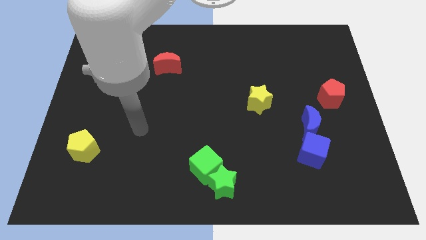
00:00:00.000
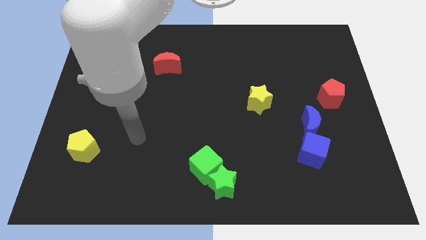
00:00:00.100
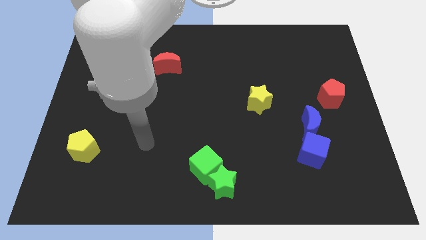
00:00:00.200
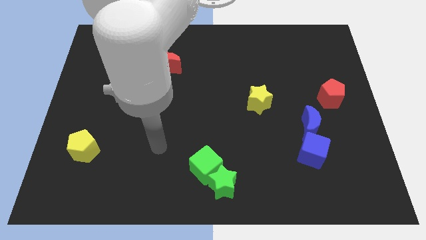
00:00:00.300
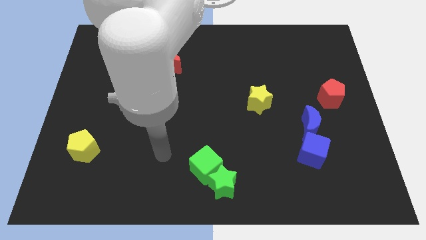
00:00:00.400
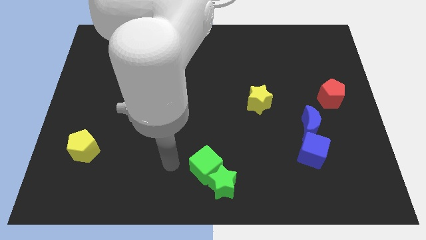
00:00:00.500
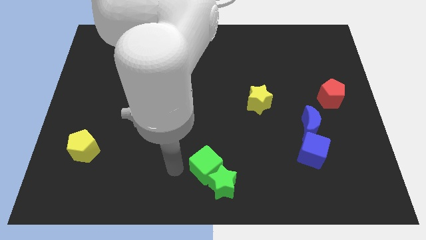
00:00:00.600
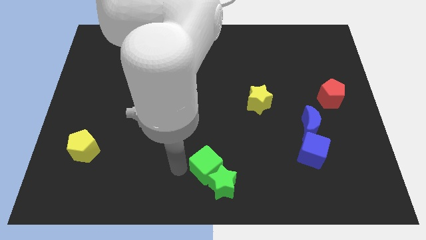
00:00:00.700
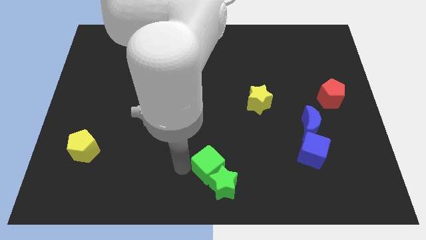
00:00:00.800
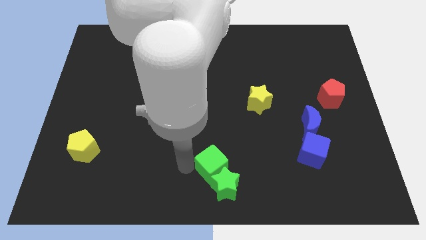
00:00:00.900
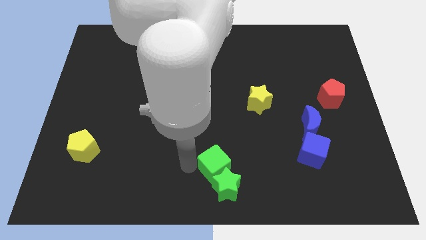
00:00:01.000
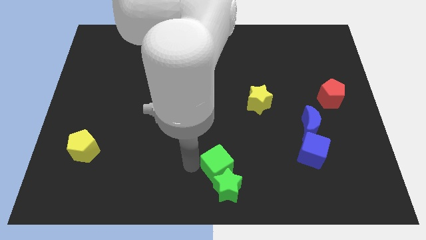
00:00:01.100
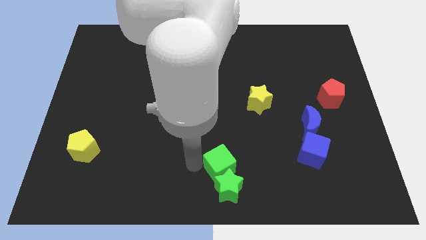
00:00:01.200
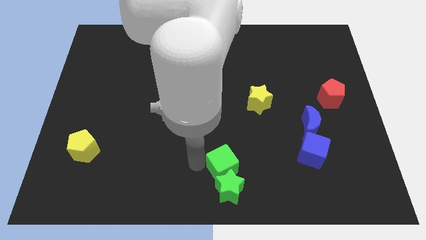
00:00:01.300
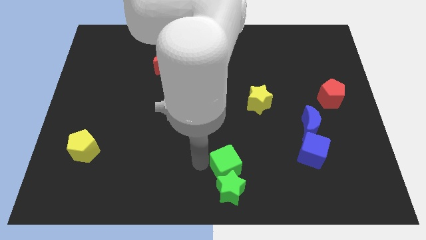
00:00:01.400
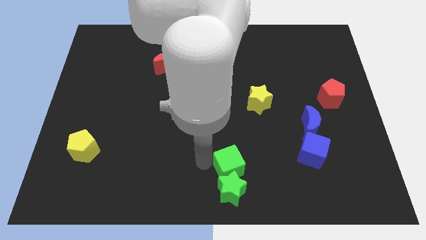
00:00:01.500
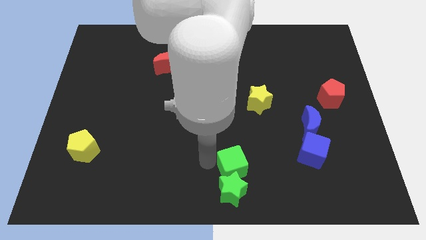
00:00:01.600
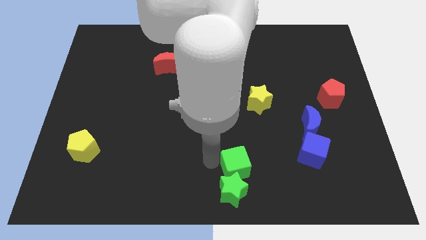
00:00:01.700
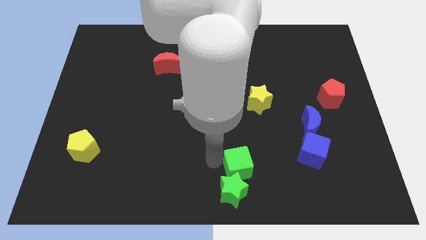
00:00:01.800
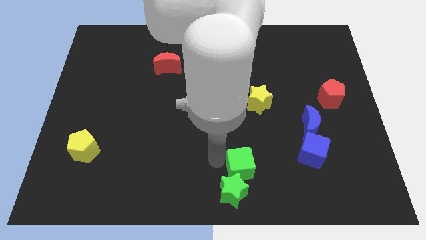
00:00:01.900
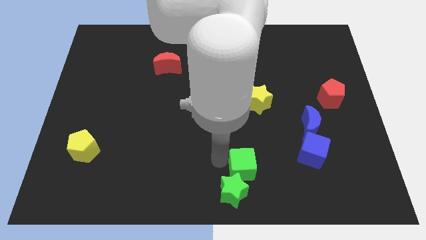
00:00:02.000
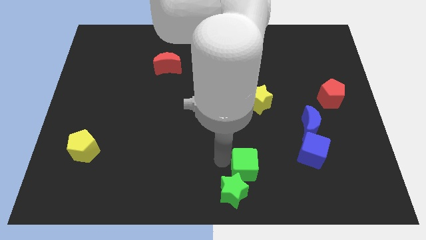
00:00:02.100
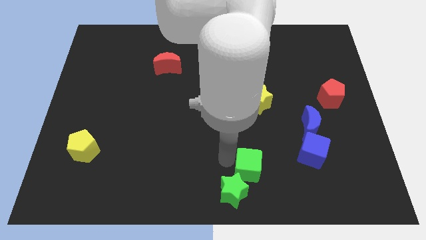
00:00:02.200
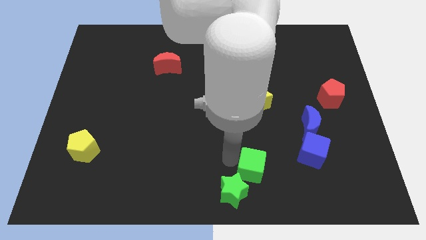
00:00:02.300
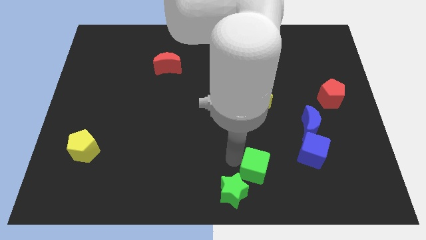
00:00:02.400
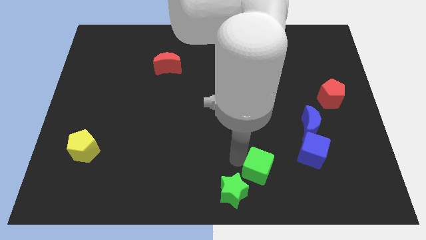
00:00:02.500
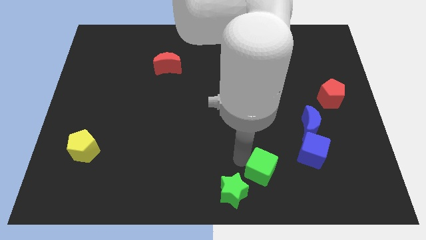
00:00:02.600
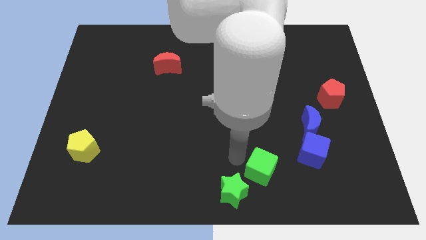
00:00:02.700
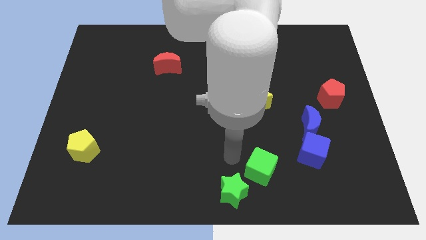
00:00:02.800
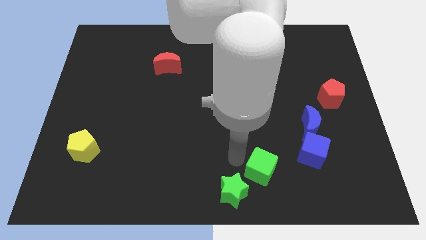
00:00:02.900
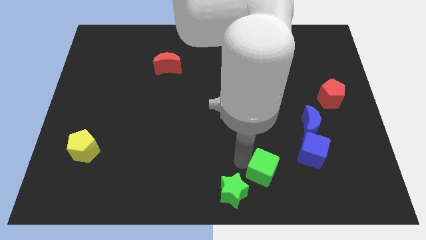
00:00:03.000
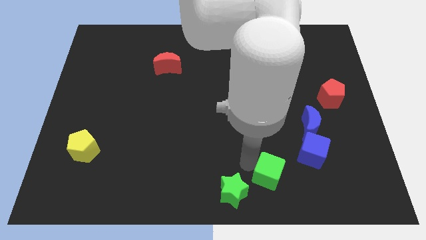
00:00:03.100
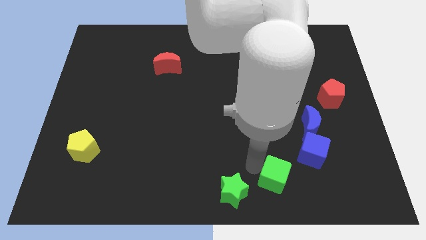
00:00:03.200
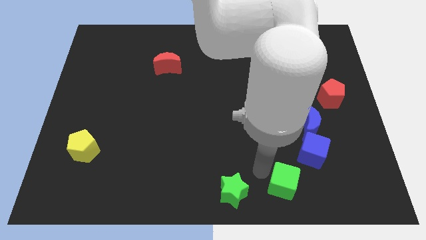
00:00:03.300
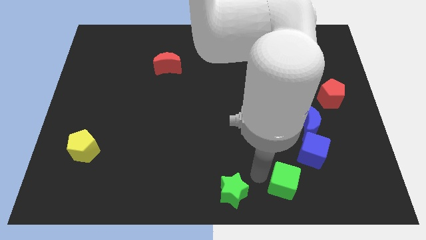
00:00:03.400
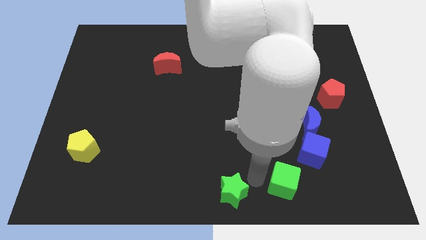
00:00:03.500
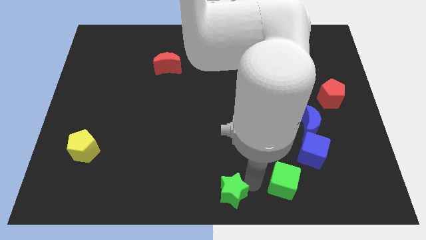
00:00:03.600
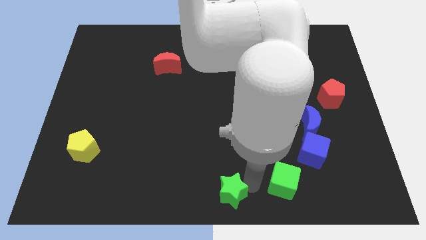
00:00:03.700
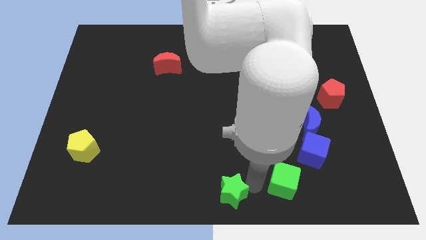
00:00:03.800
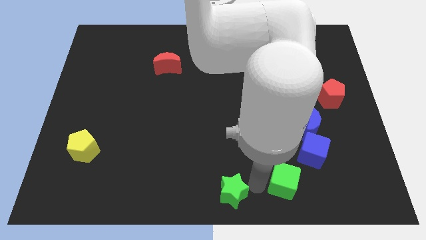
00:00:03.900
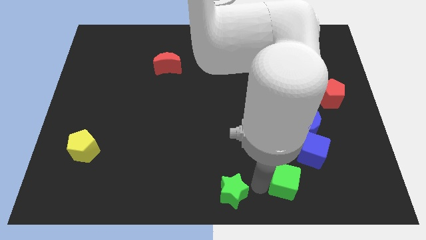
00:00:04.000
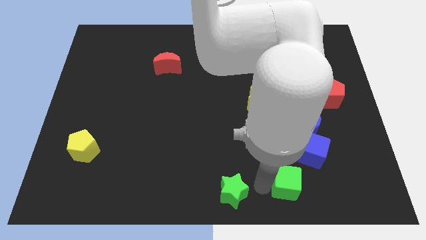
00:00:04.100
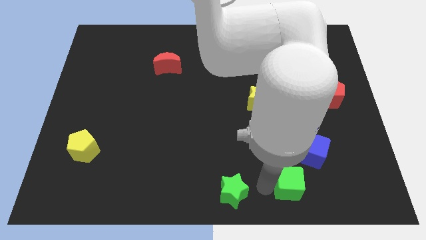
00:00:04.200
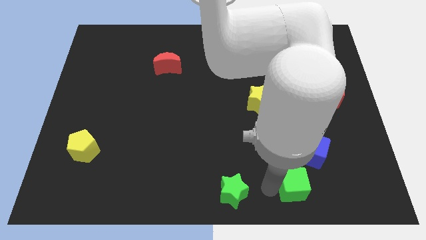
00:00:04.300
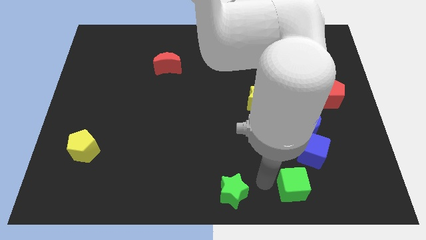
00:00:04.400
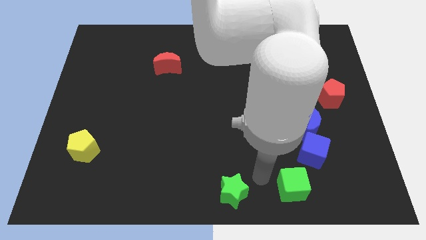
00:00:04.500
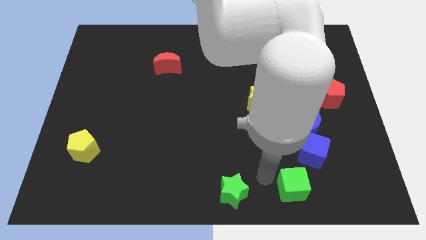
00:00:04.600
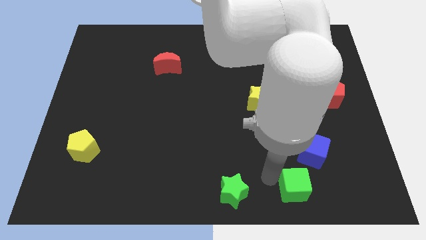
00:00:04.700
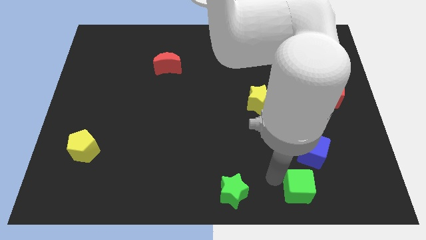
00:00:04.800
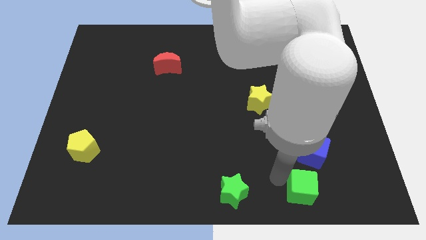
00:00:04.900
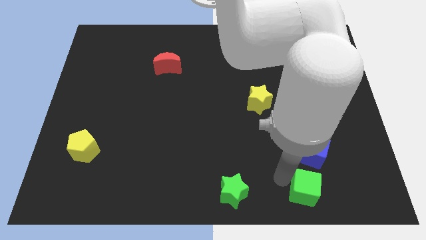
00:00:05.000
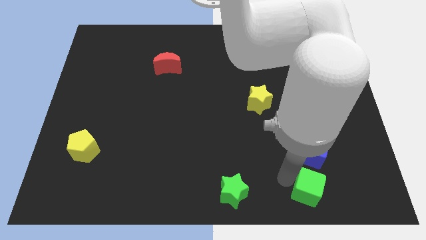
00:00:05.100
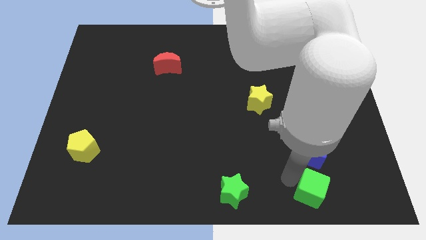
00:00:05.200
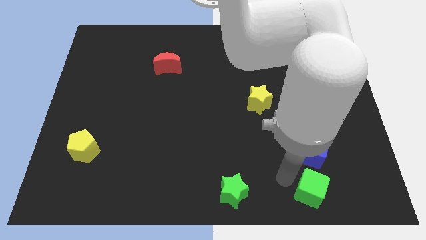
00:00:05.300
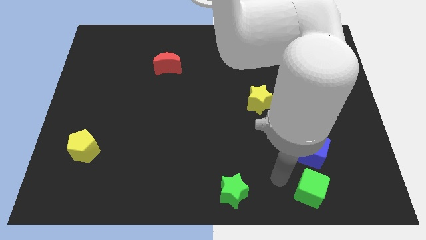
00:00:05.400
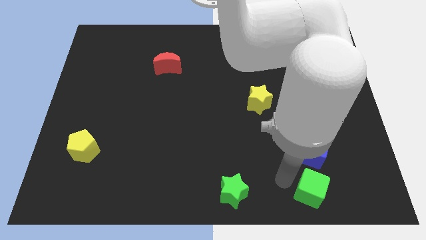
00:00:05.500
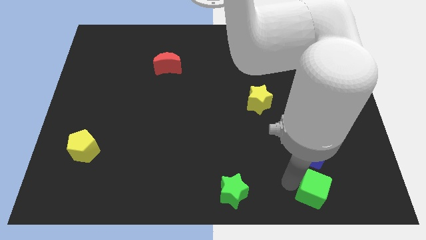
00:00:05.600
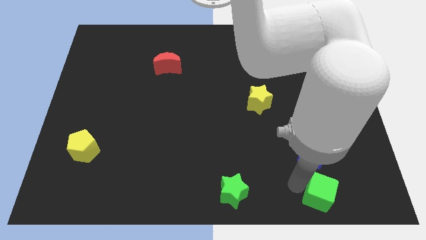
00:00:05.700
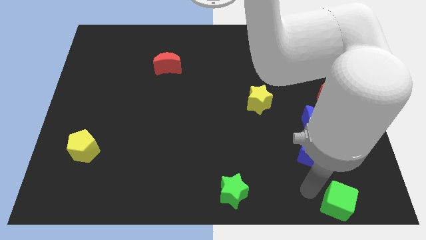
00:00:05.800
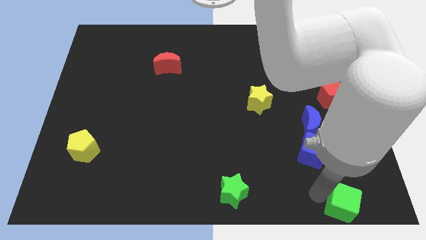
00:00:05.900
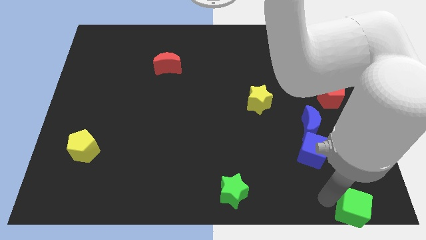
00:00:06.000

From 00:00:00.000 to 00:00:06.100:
put the green cube to the bottom right

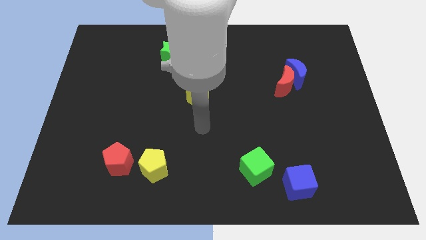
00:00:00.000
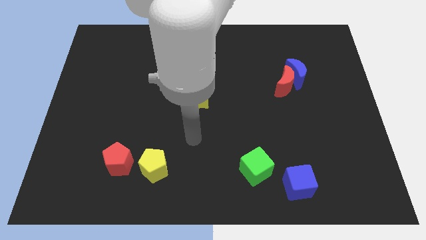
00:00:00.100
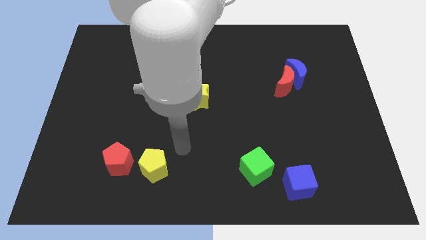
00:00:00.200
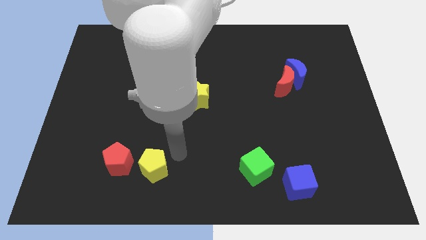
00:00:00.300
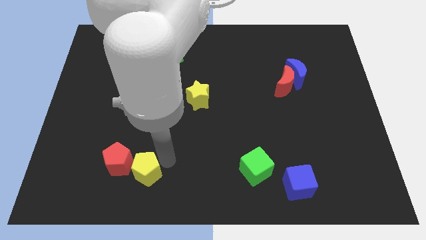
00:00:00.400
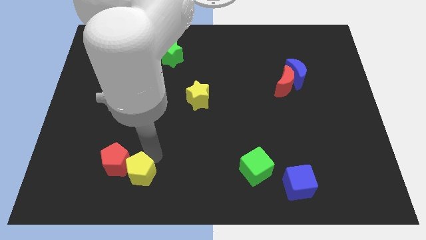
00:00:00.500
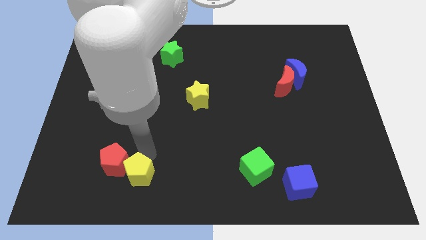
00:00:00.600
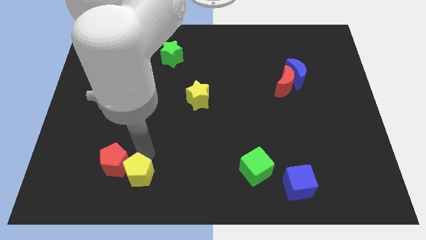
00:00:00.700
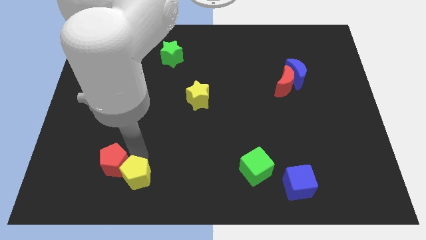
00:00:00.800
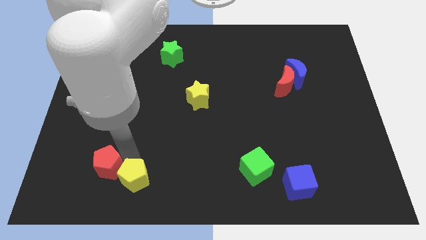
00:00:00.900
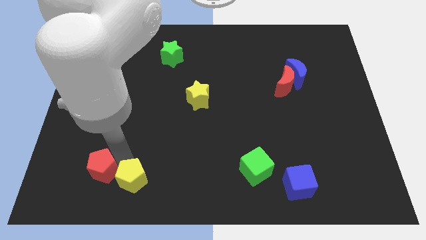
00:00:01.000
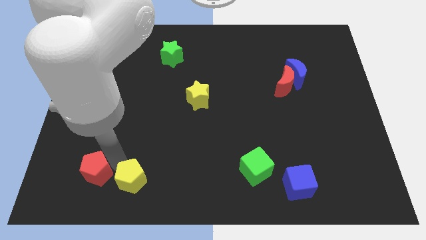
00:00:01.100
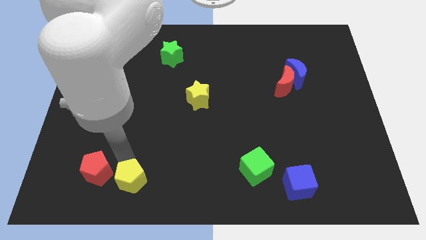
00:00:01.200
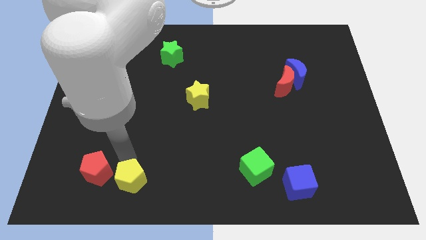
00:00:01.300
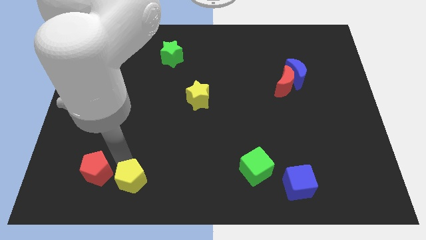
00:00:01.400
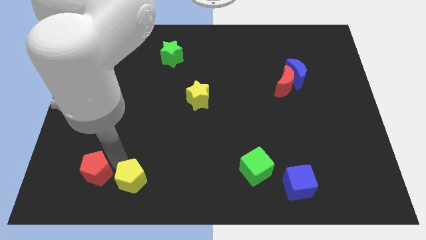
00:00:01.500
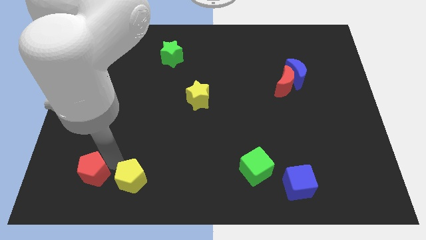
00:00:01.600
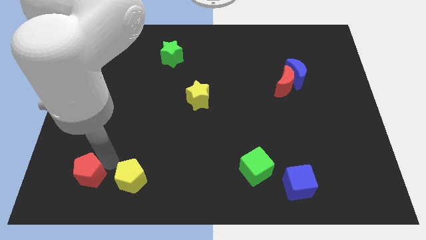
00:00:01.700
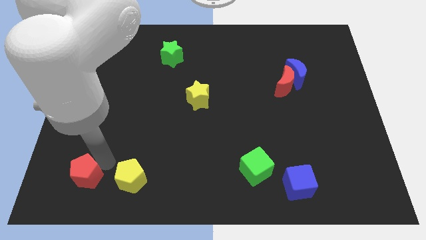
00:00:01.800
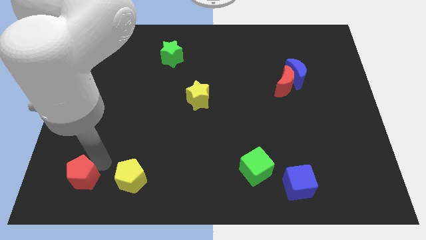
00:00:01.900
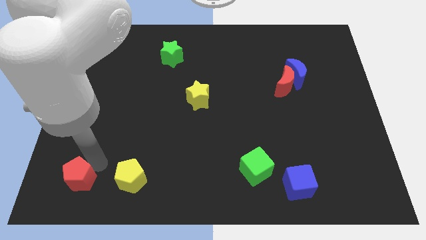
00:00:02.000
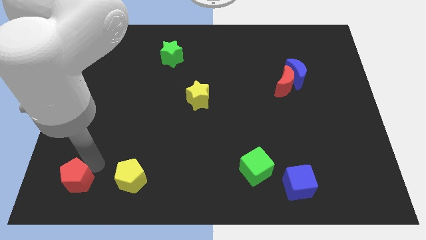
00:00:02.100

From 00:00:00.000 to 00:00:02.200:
put the red pentagon to the bottom left of the board
